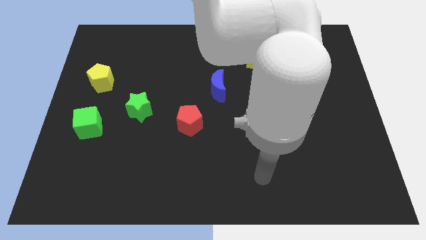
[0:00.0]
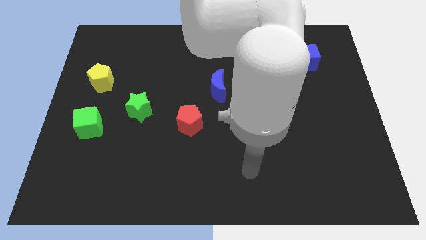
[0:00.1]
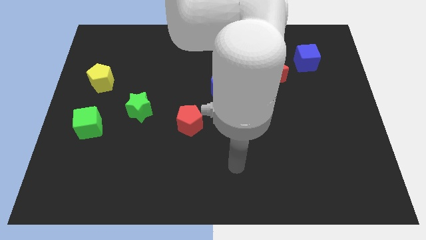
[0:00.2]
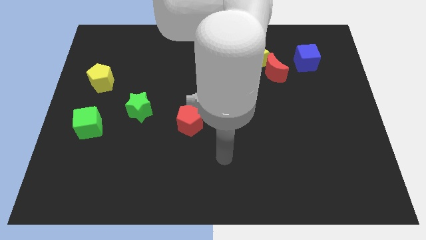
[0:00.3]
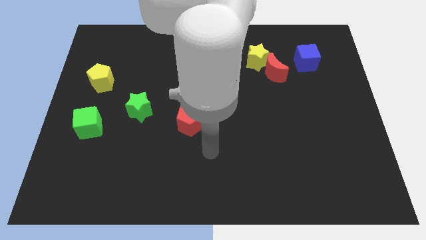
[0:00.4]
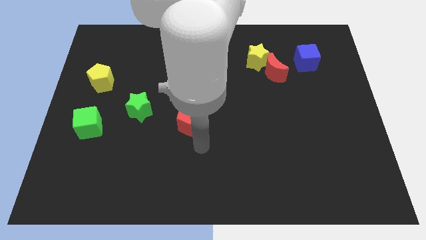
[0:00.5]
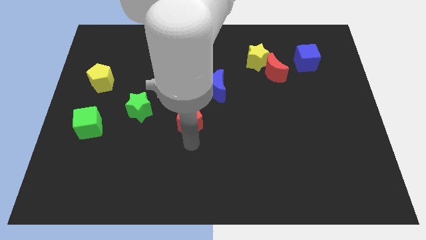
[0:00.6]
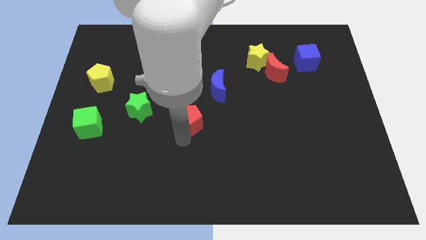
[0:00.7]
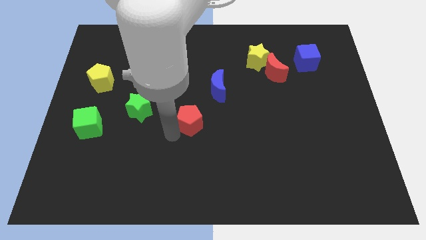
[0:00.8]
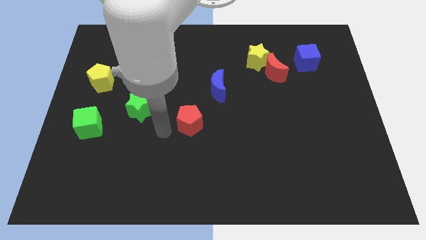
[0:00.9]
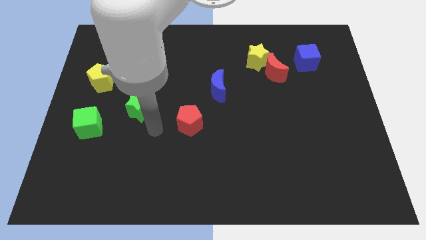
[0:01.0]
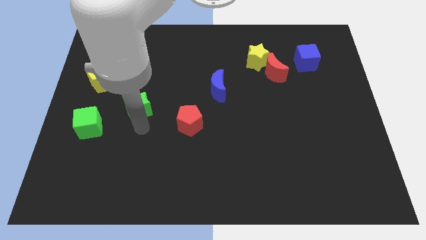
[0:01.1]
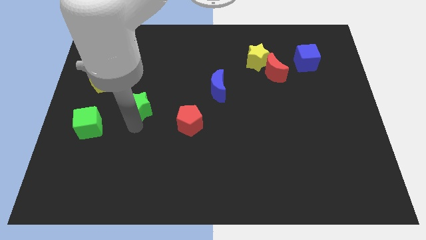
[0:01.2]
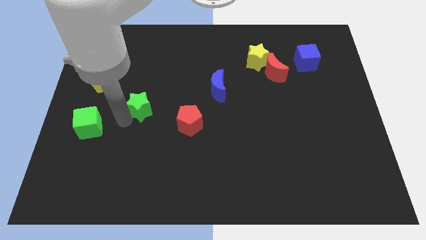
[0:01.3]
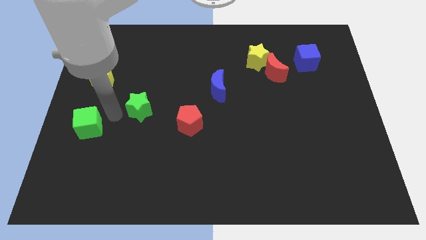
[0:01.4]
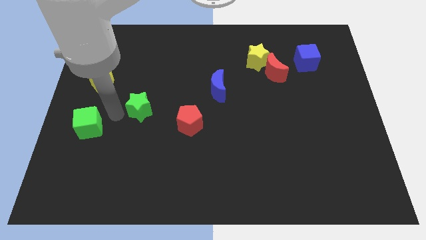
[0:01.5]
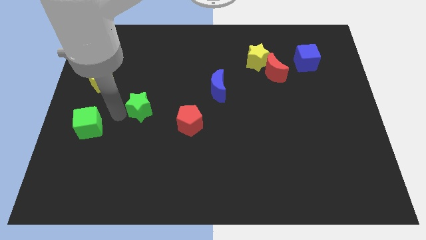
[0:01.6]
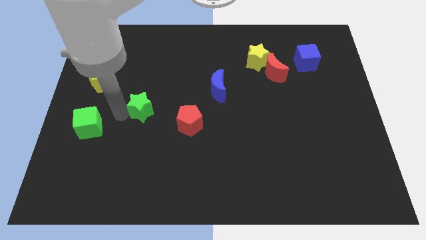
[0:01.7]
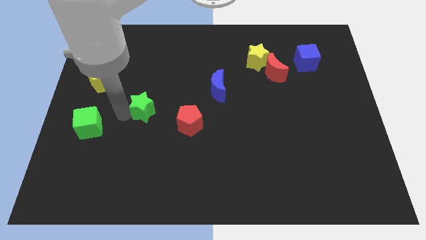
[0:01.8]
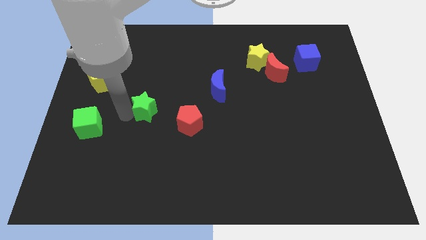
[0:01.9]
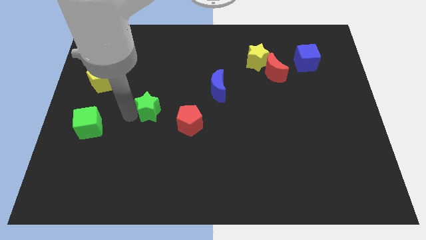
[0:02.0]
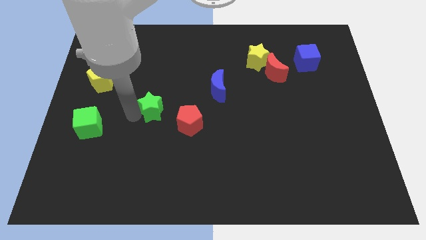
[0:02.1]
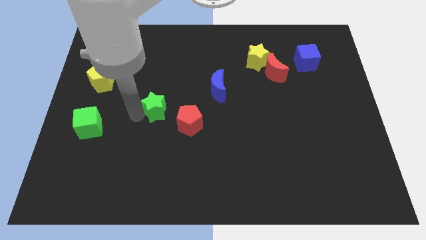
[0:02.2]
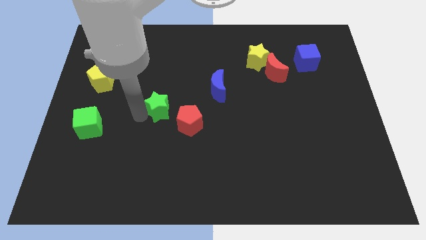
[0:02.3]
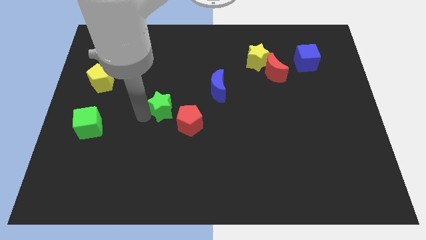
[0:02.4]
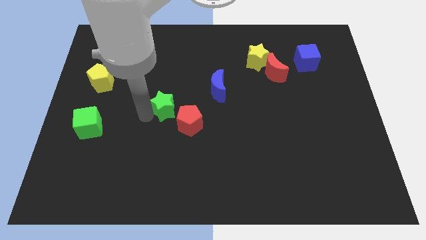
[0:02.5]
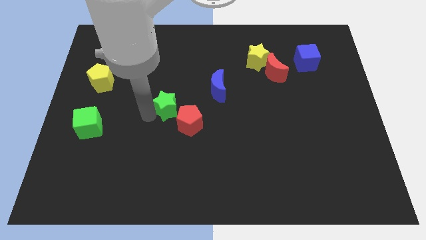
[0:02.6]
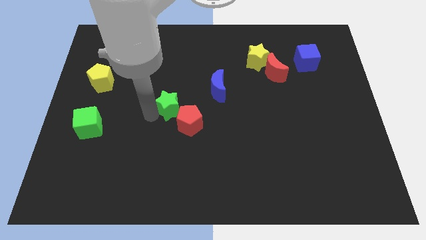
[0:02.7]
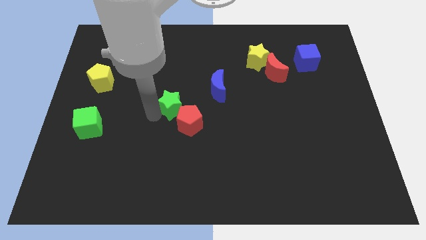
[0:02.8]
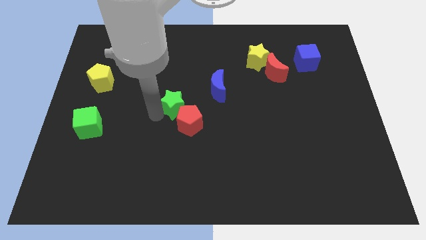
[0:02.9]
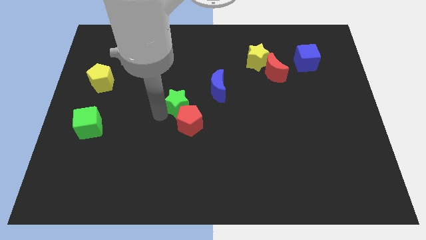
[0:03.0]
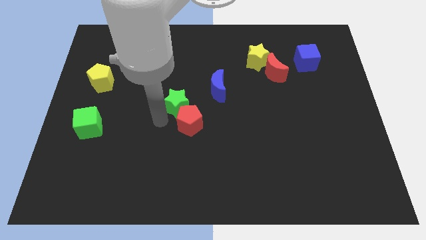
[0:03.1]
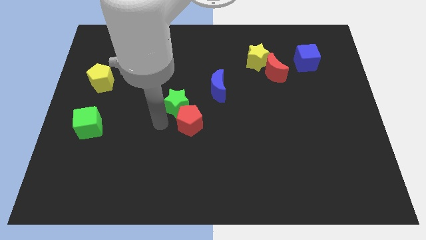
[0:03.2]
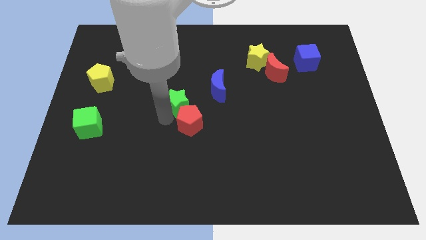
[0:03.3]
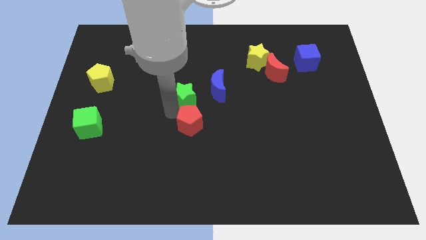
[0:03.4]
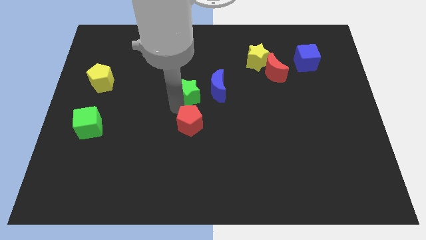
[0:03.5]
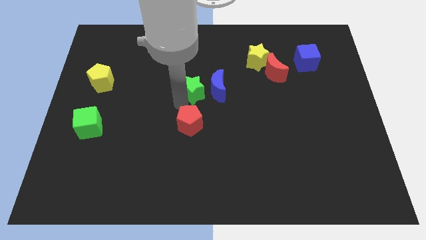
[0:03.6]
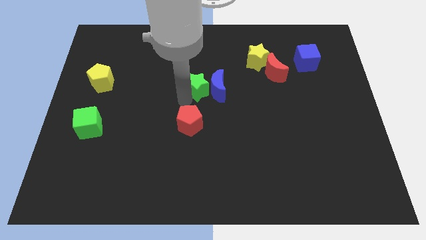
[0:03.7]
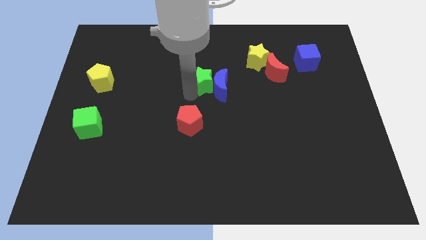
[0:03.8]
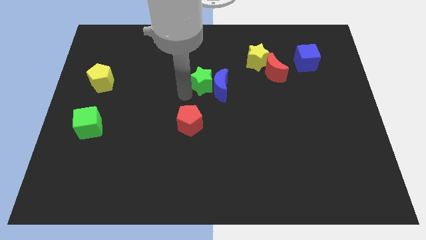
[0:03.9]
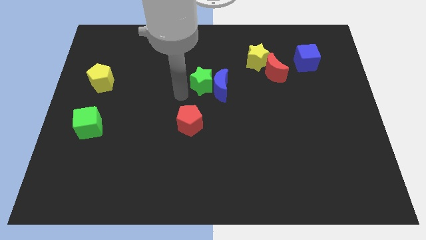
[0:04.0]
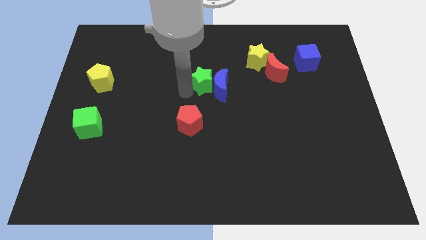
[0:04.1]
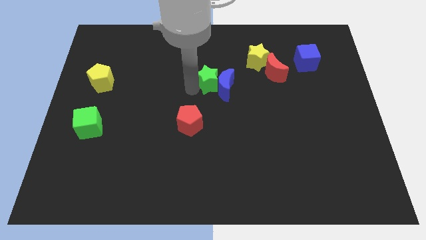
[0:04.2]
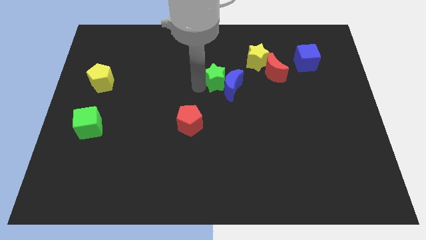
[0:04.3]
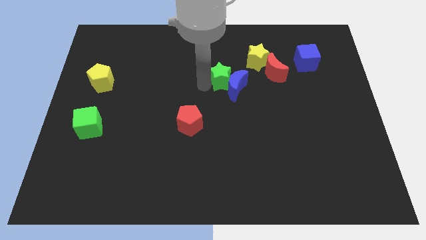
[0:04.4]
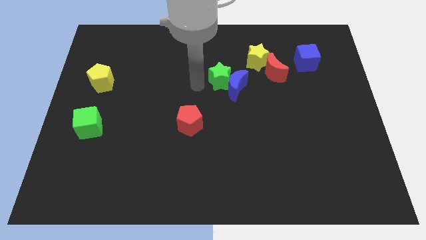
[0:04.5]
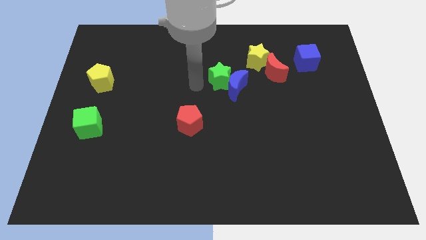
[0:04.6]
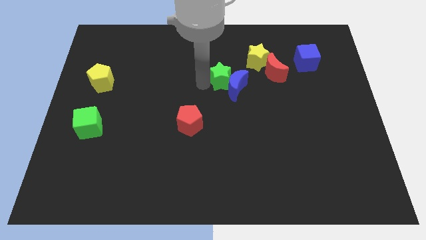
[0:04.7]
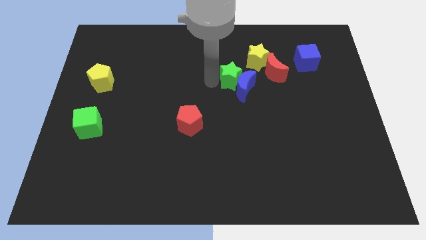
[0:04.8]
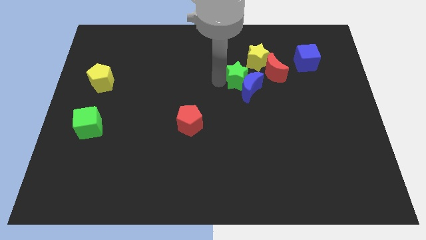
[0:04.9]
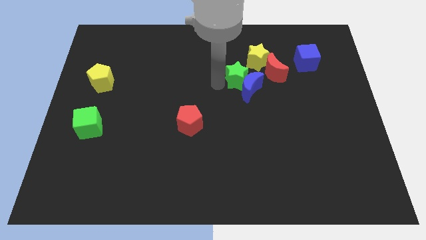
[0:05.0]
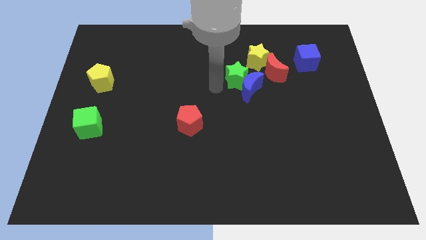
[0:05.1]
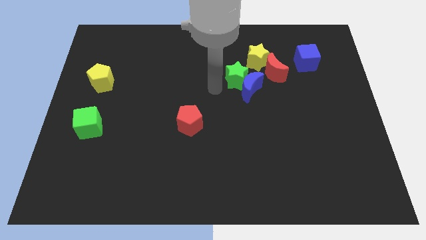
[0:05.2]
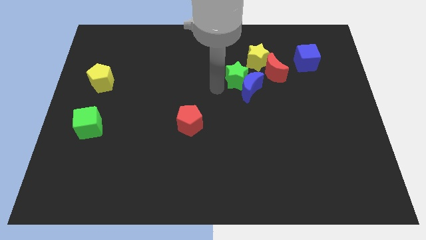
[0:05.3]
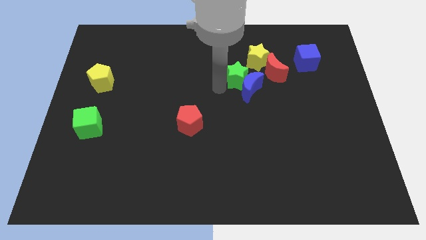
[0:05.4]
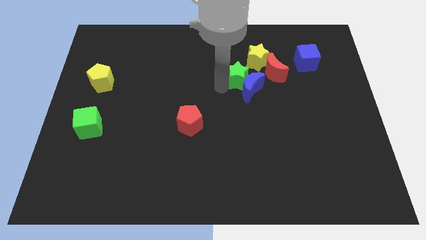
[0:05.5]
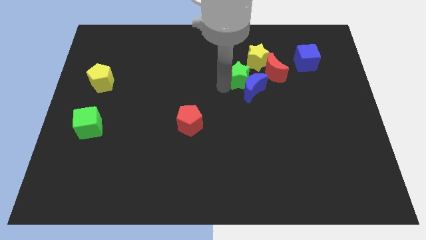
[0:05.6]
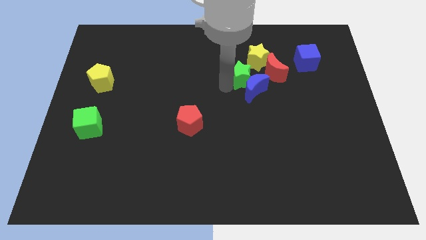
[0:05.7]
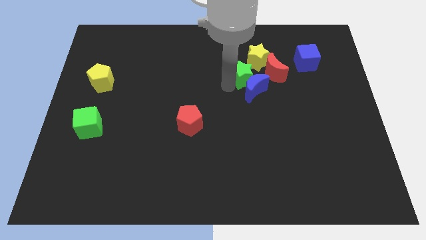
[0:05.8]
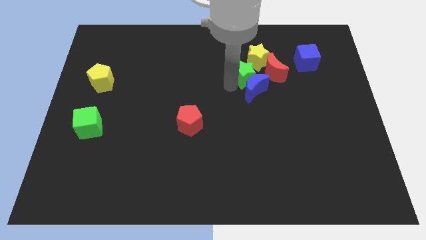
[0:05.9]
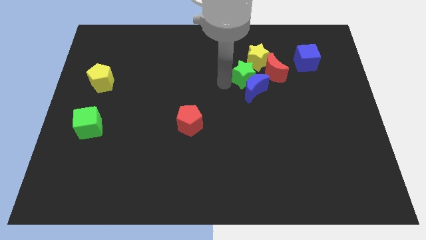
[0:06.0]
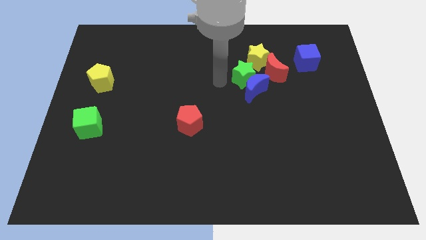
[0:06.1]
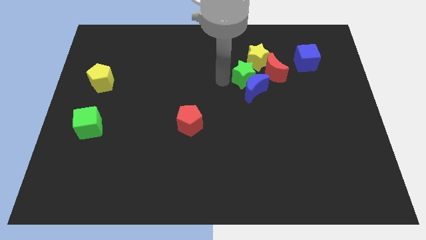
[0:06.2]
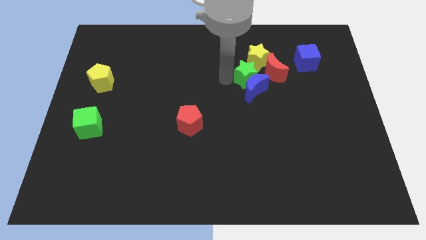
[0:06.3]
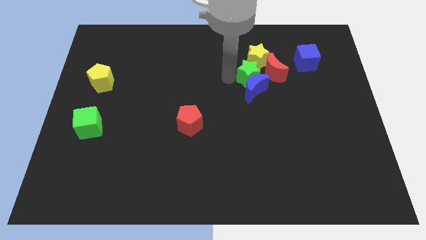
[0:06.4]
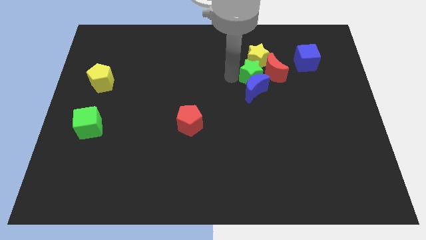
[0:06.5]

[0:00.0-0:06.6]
slide the green star to the red moon

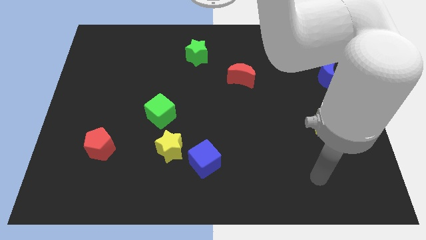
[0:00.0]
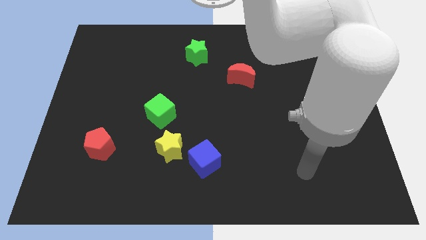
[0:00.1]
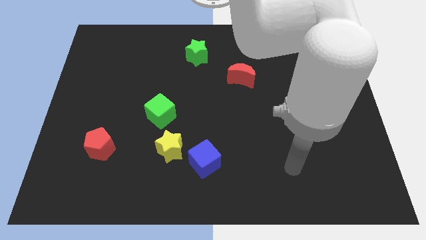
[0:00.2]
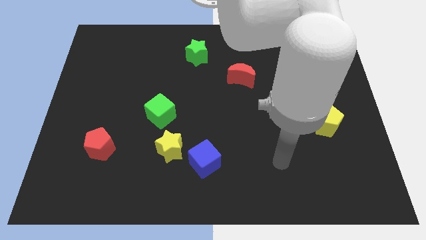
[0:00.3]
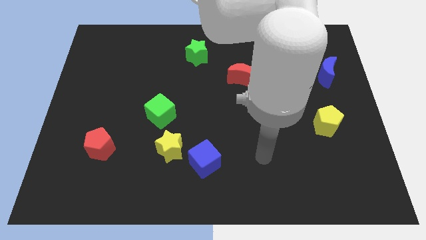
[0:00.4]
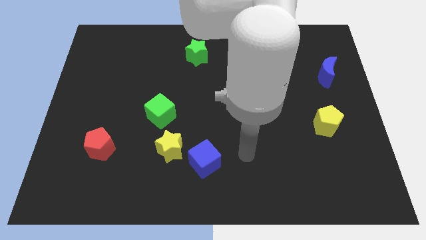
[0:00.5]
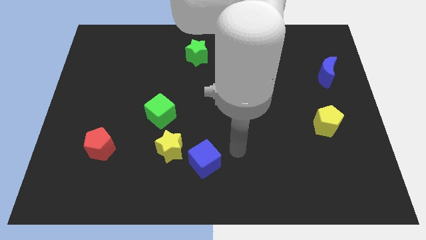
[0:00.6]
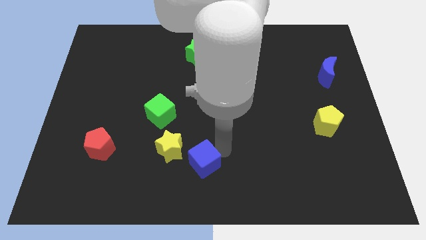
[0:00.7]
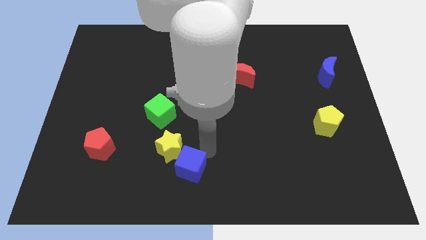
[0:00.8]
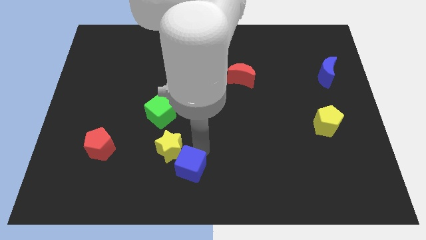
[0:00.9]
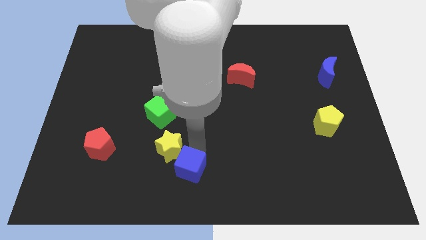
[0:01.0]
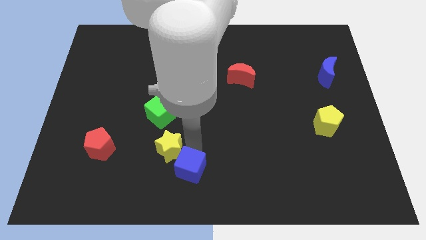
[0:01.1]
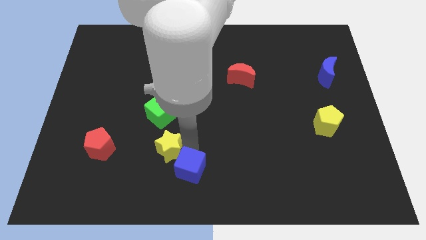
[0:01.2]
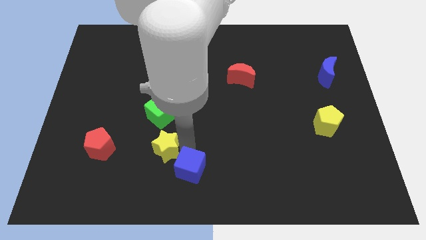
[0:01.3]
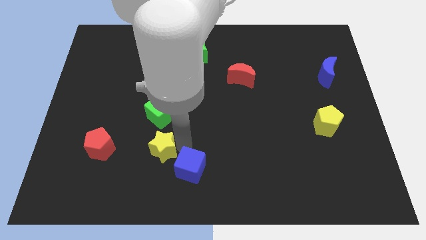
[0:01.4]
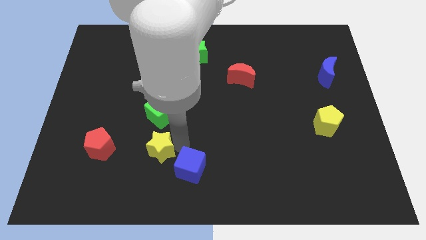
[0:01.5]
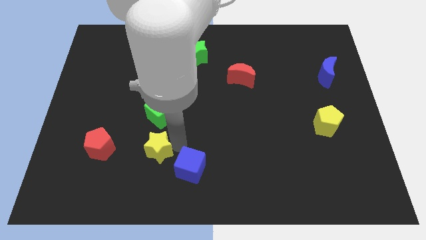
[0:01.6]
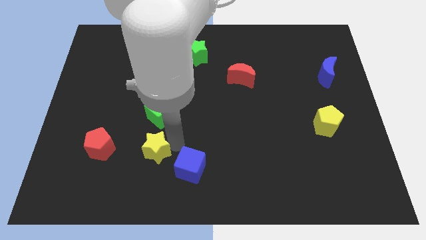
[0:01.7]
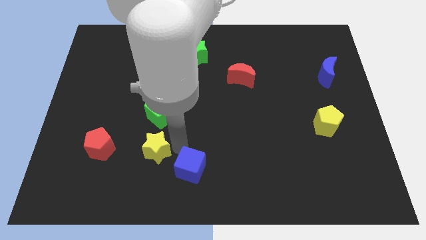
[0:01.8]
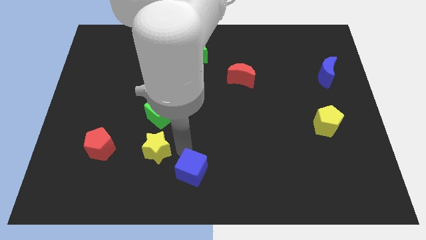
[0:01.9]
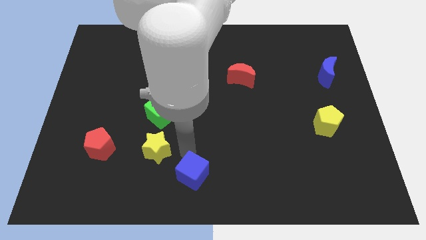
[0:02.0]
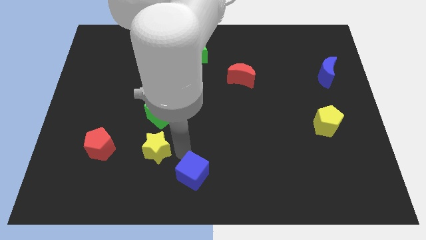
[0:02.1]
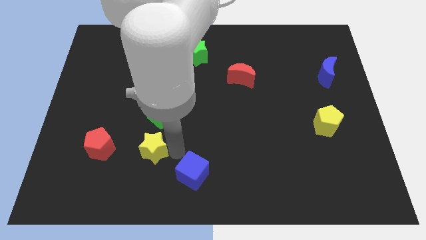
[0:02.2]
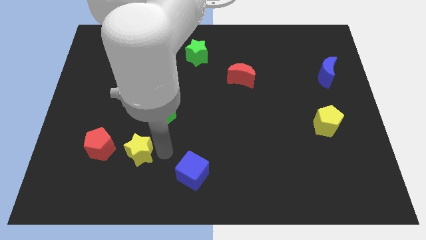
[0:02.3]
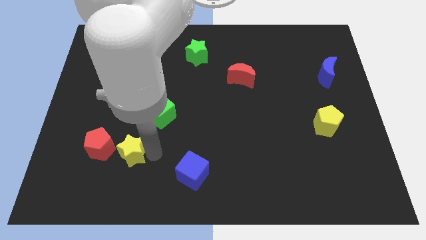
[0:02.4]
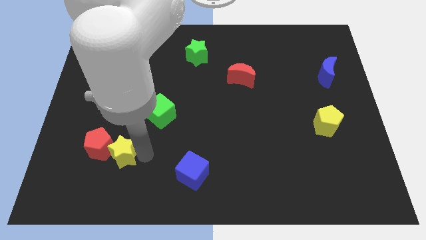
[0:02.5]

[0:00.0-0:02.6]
slide the yellow star to the red pentagon
